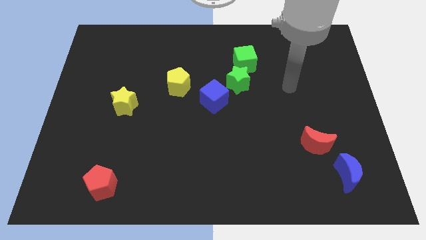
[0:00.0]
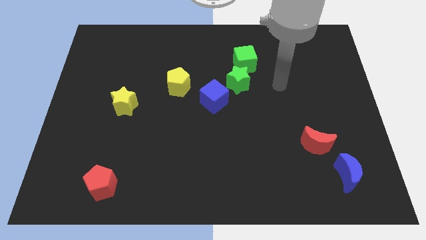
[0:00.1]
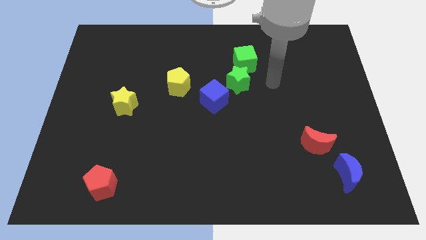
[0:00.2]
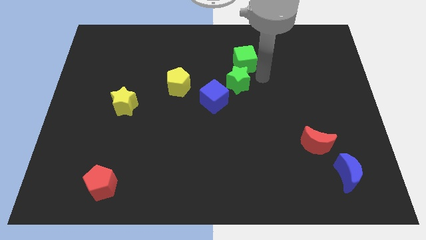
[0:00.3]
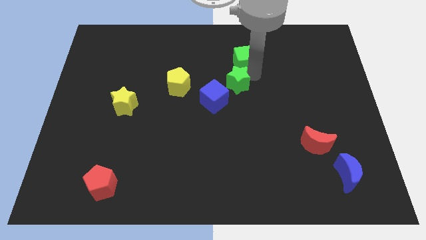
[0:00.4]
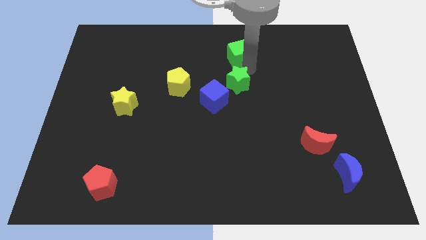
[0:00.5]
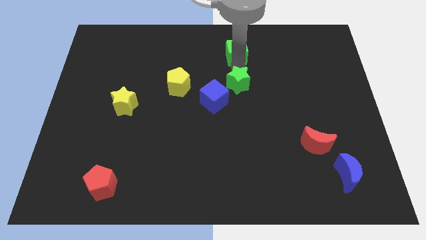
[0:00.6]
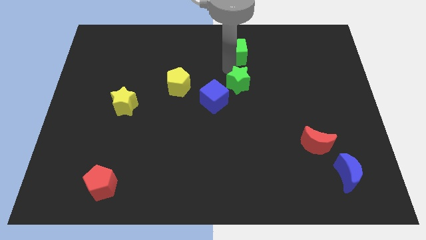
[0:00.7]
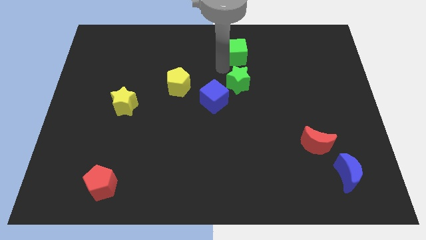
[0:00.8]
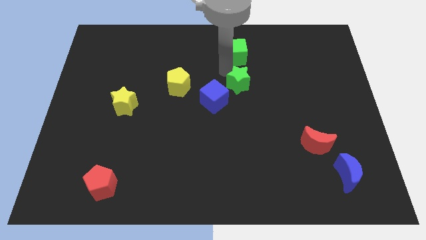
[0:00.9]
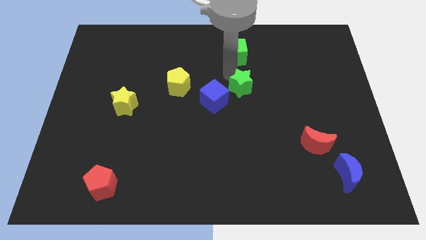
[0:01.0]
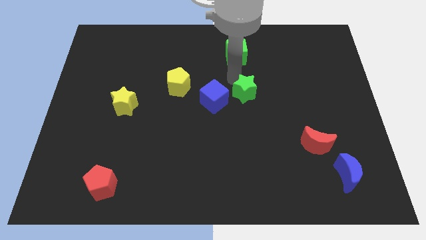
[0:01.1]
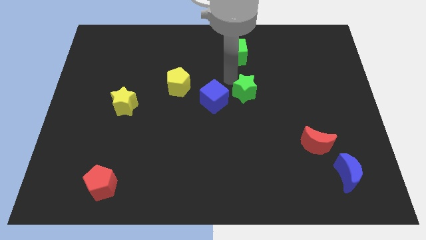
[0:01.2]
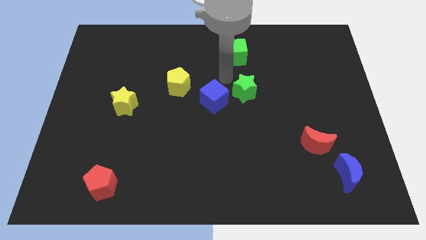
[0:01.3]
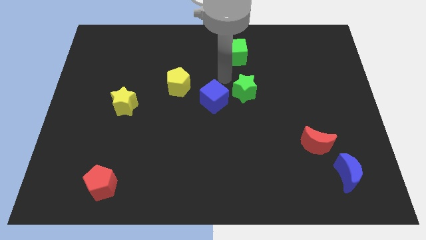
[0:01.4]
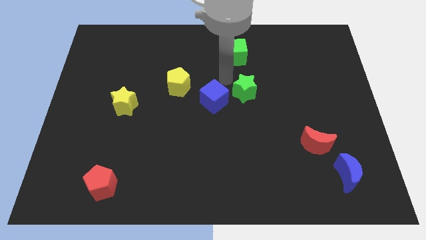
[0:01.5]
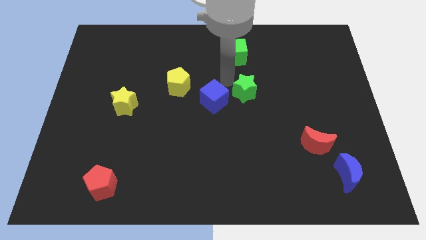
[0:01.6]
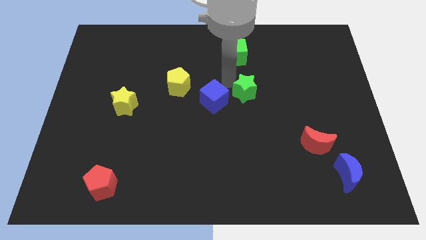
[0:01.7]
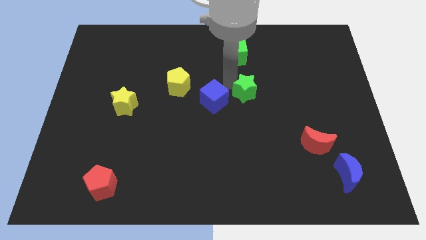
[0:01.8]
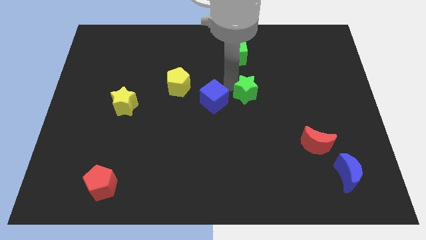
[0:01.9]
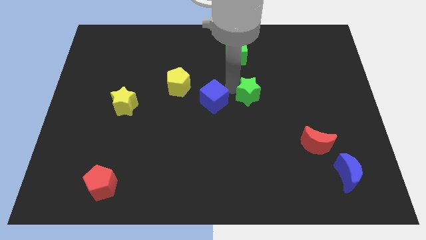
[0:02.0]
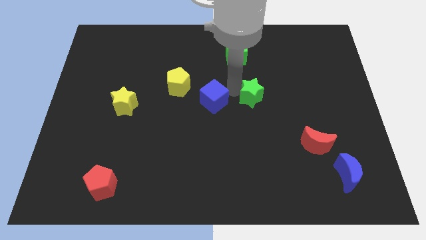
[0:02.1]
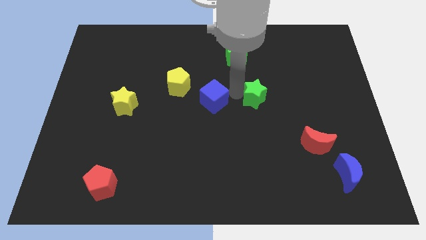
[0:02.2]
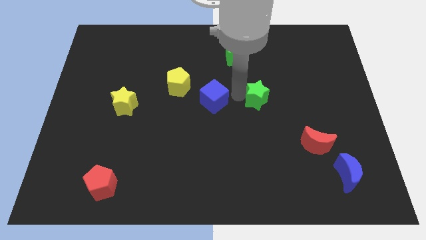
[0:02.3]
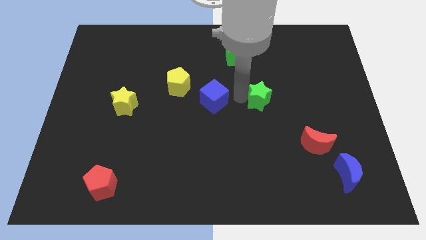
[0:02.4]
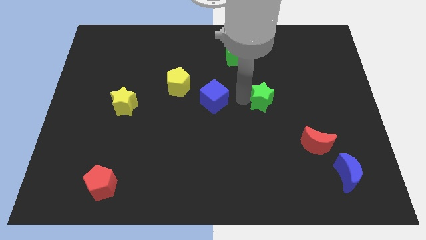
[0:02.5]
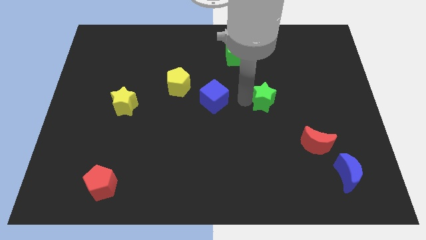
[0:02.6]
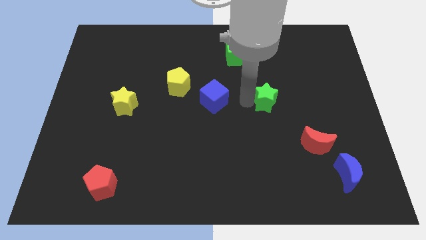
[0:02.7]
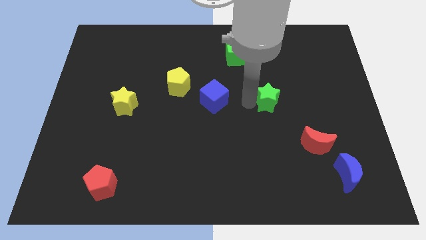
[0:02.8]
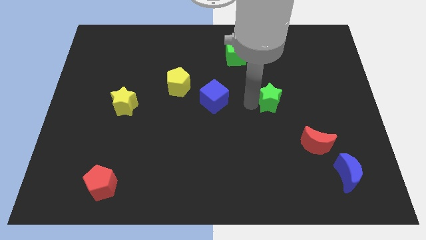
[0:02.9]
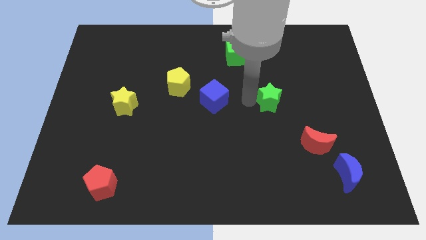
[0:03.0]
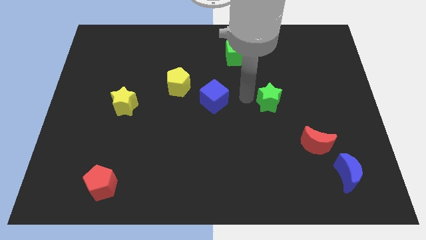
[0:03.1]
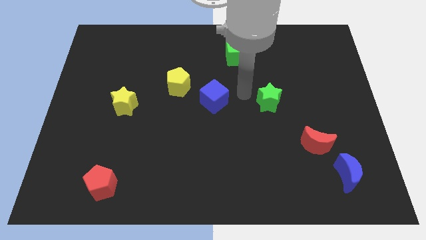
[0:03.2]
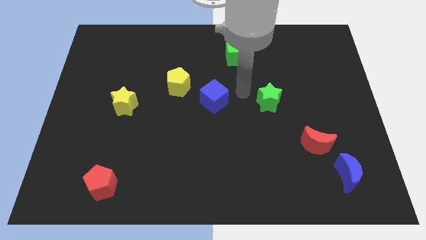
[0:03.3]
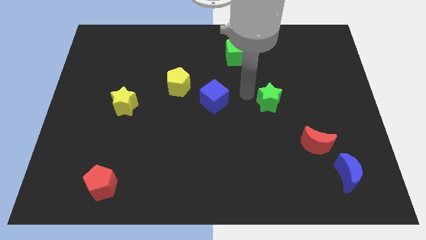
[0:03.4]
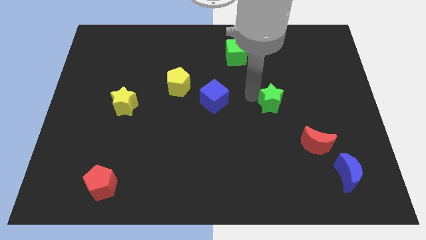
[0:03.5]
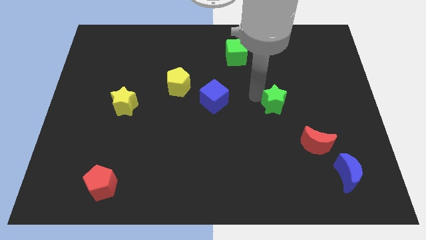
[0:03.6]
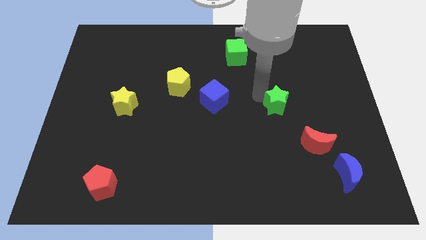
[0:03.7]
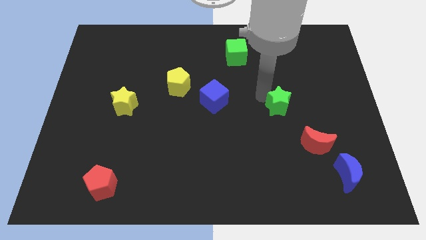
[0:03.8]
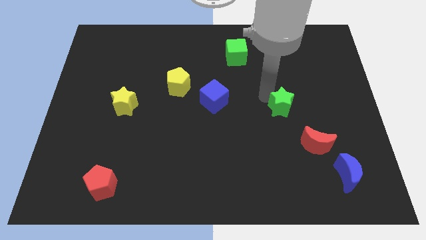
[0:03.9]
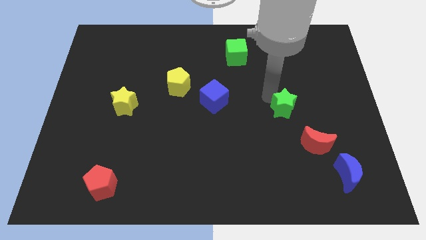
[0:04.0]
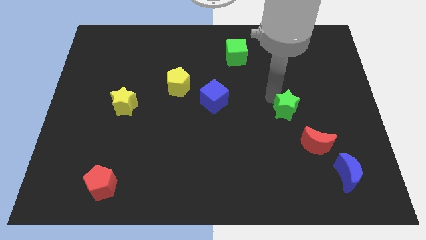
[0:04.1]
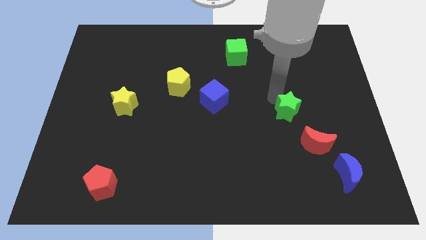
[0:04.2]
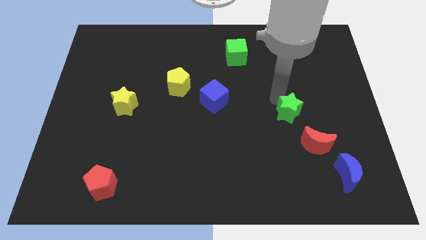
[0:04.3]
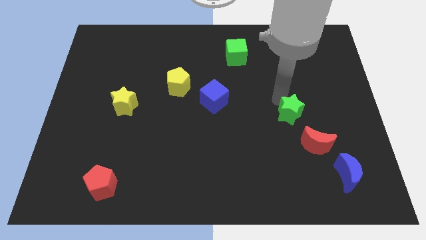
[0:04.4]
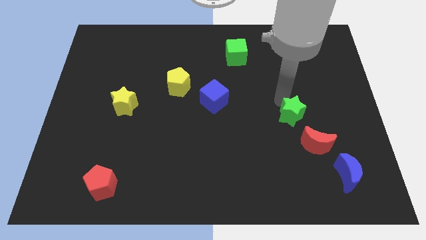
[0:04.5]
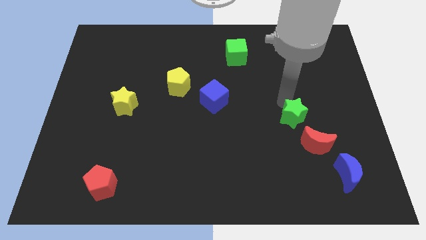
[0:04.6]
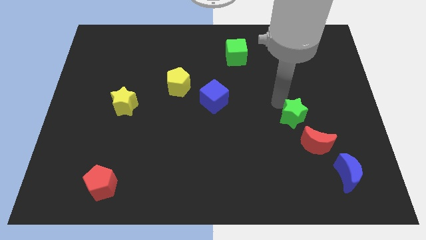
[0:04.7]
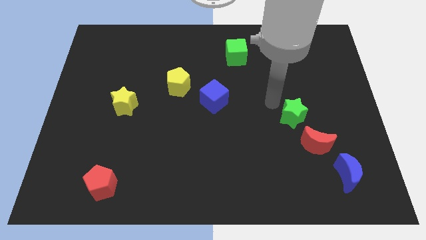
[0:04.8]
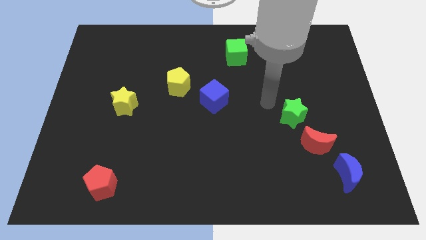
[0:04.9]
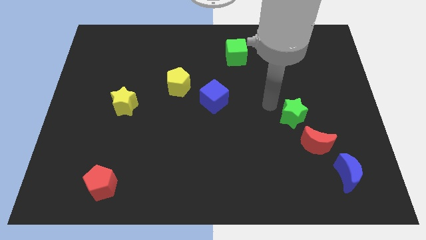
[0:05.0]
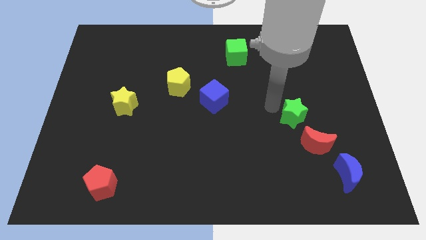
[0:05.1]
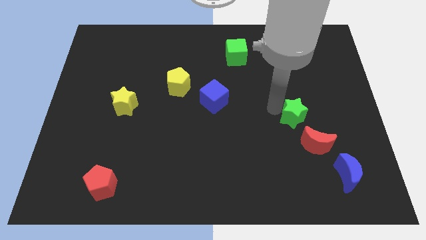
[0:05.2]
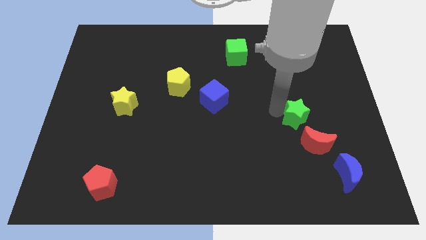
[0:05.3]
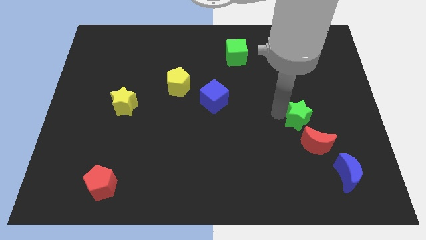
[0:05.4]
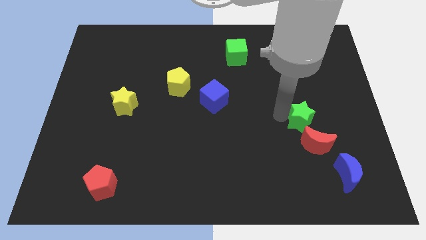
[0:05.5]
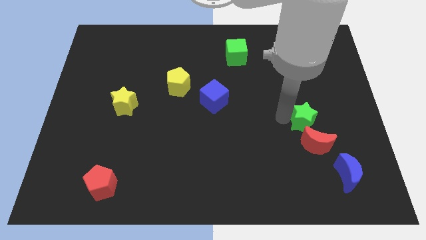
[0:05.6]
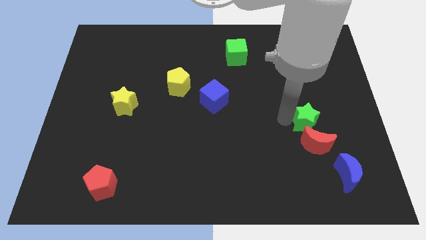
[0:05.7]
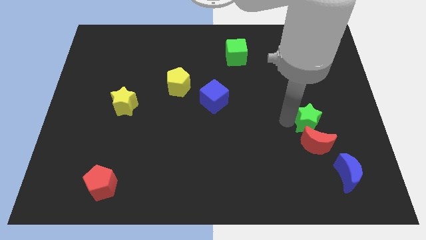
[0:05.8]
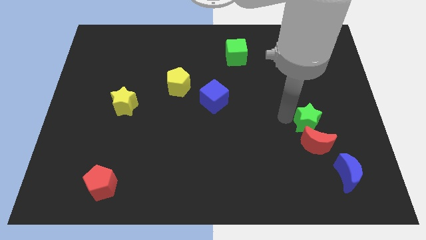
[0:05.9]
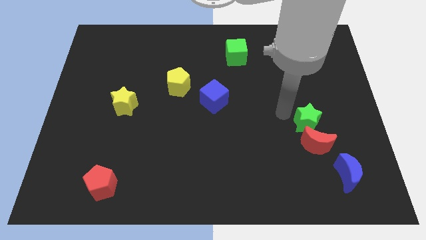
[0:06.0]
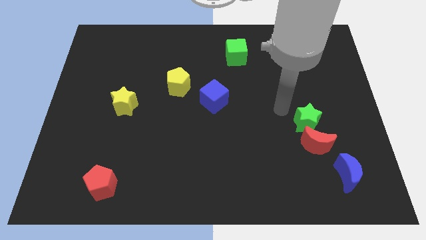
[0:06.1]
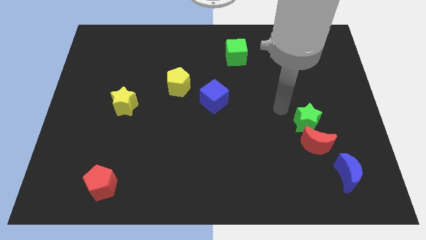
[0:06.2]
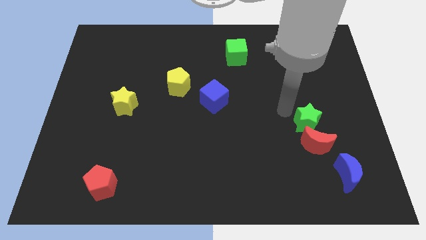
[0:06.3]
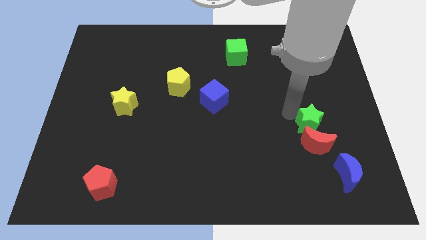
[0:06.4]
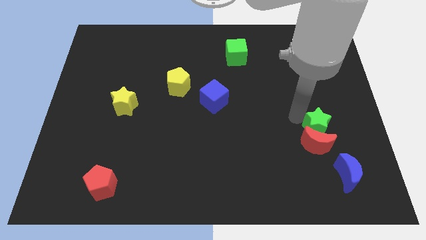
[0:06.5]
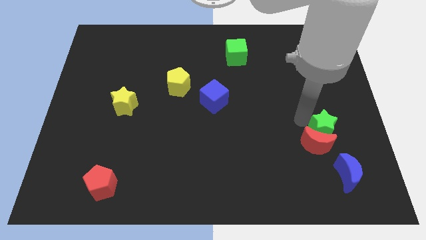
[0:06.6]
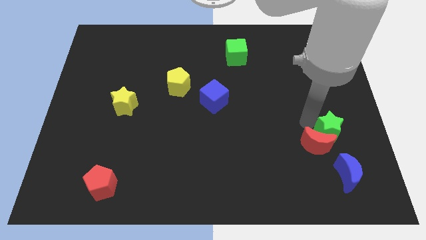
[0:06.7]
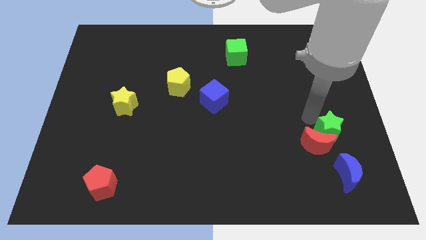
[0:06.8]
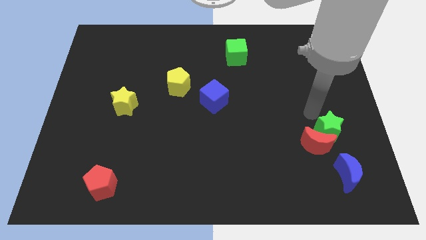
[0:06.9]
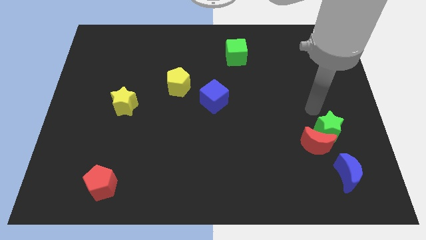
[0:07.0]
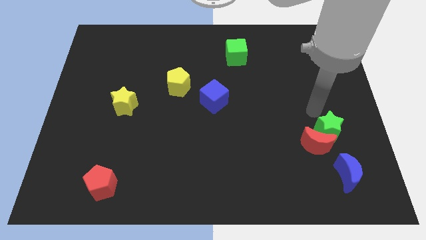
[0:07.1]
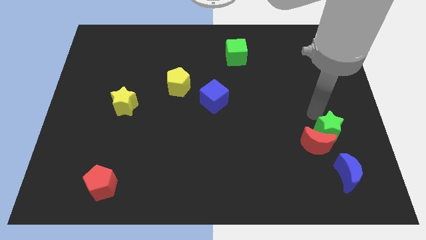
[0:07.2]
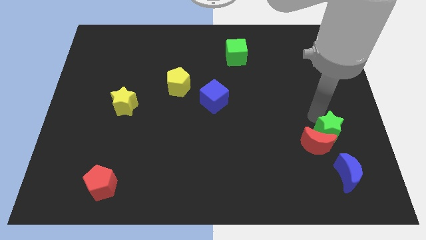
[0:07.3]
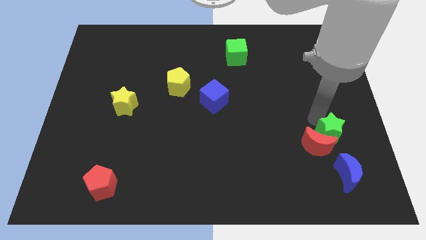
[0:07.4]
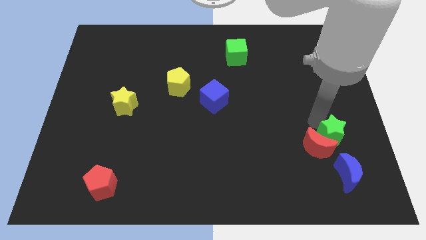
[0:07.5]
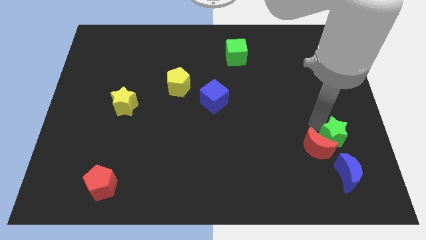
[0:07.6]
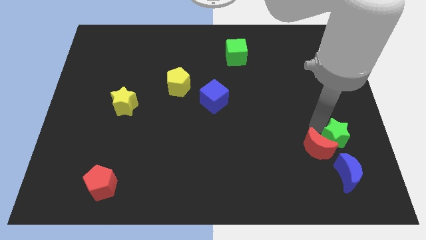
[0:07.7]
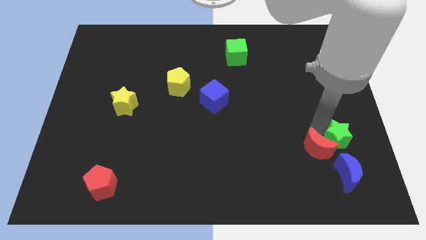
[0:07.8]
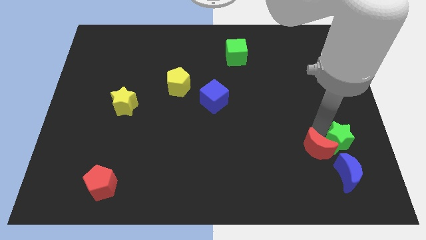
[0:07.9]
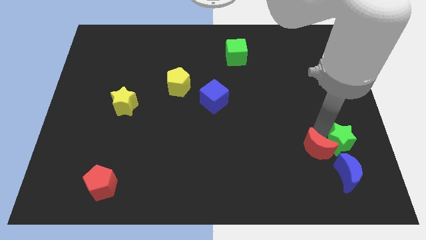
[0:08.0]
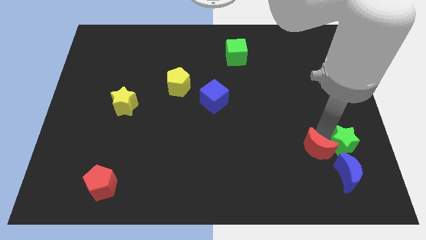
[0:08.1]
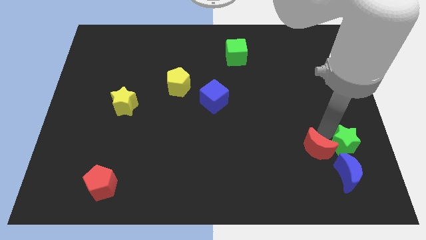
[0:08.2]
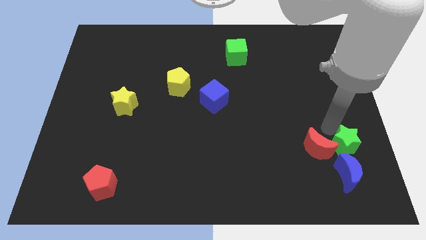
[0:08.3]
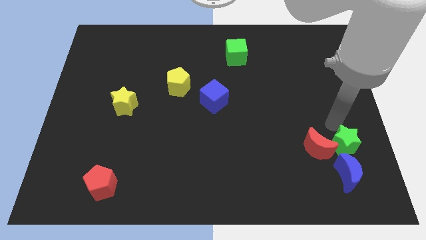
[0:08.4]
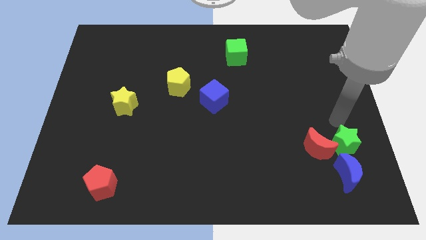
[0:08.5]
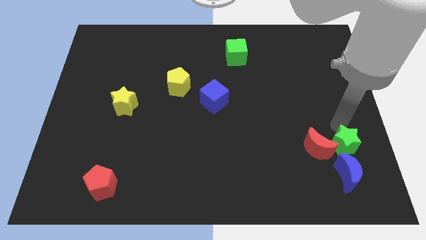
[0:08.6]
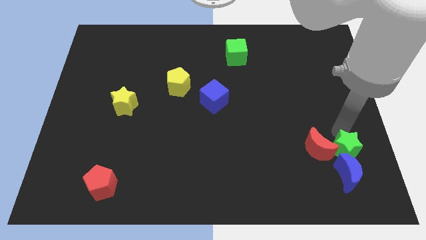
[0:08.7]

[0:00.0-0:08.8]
move the green star to the blue moon
